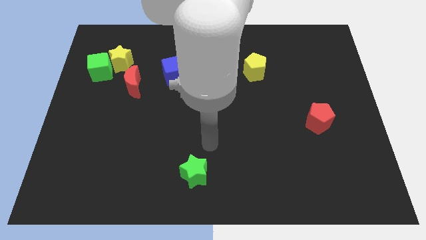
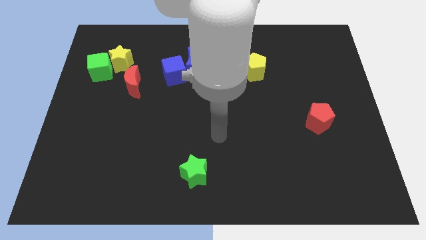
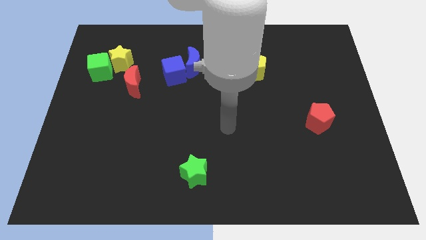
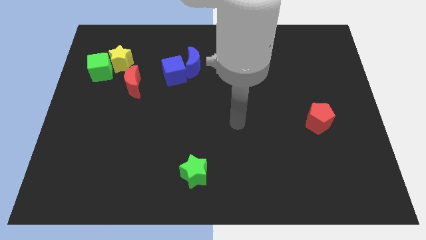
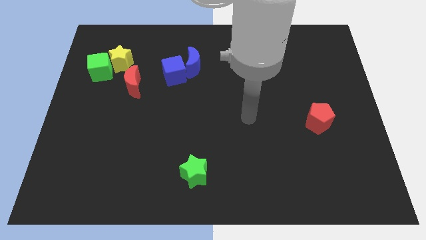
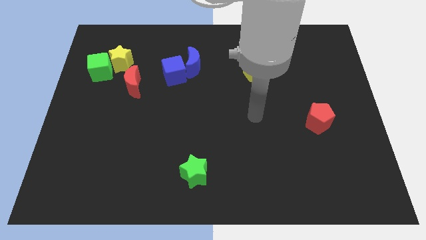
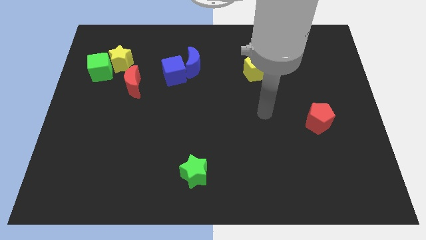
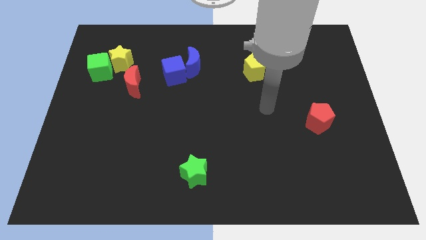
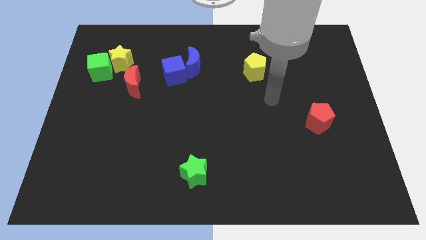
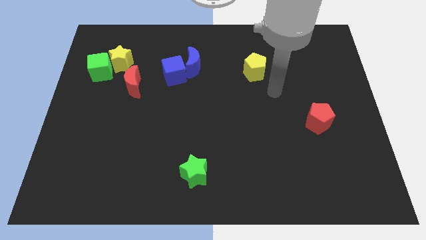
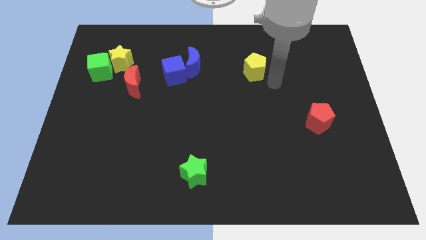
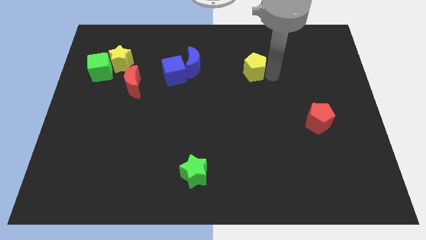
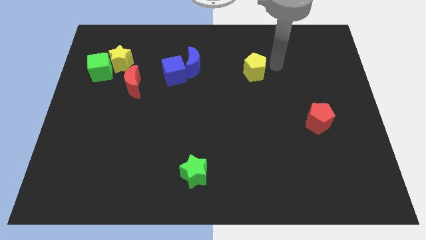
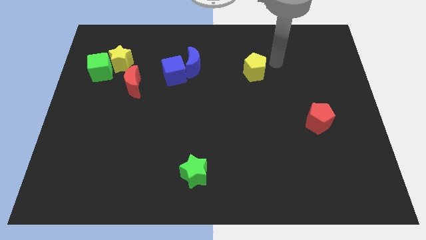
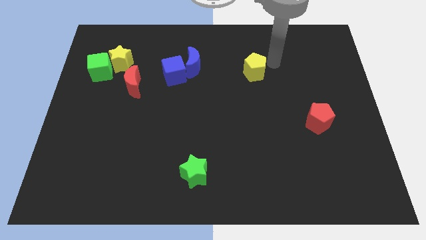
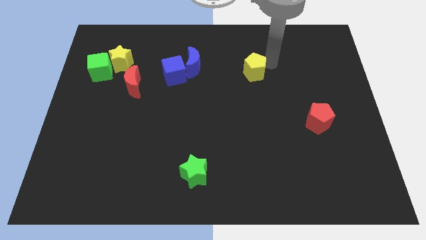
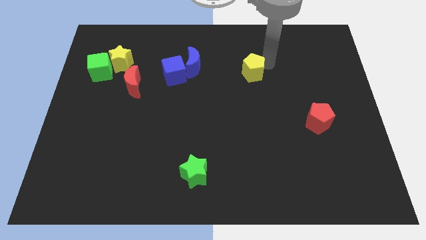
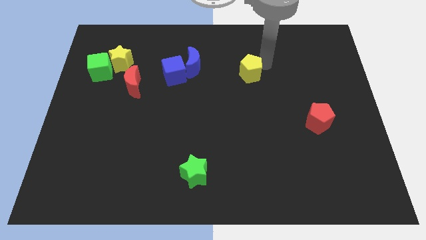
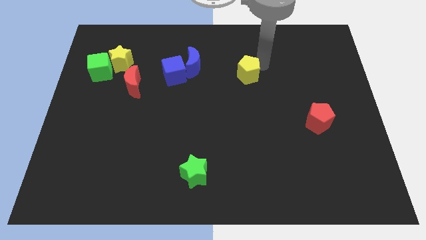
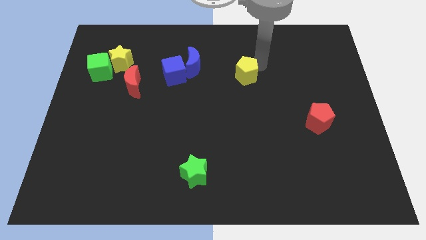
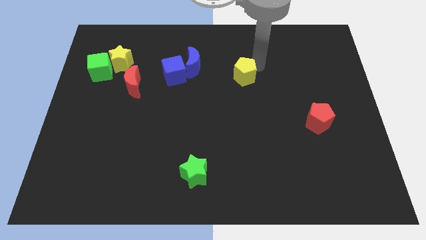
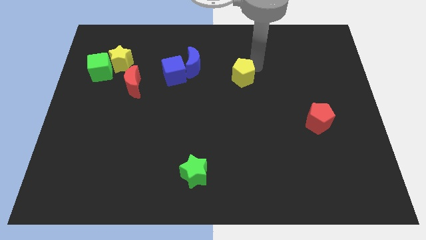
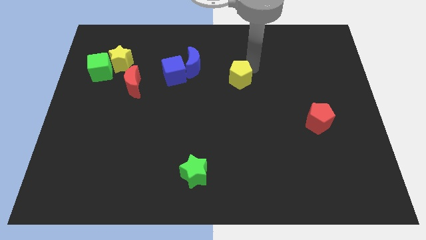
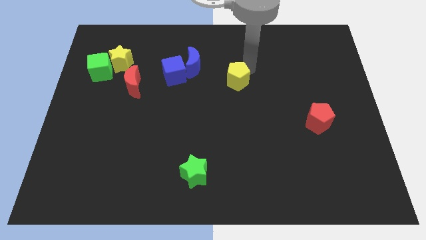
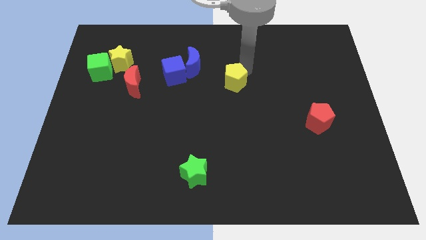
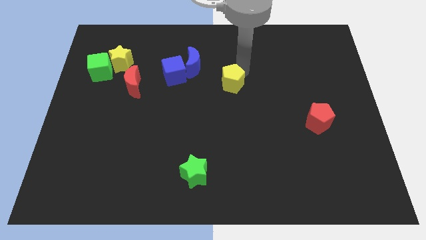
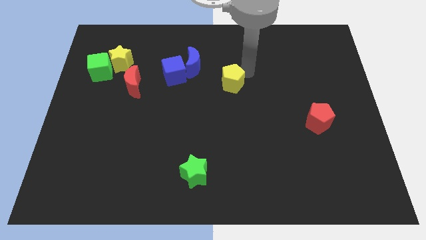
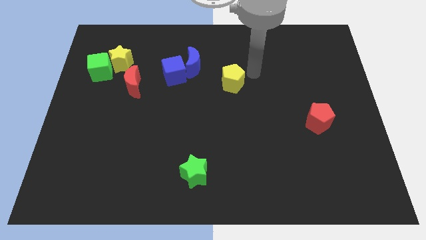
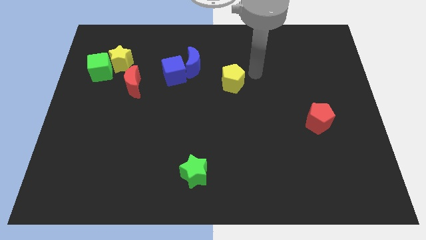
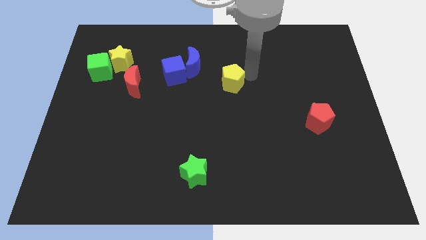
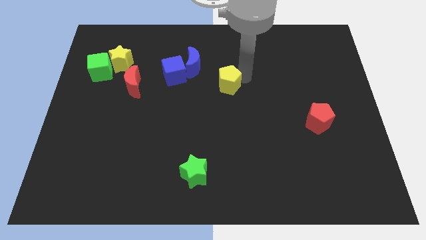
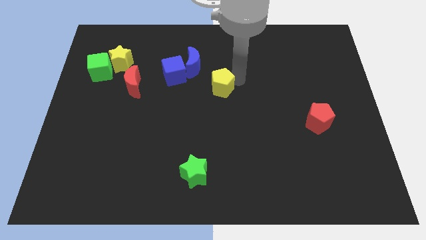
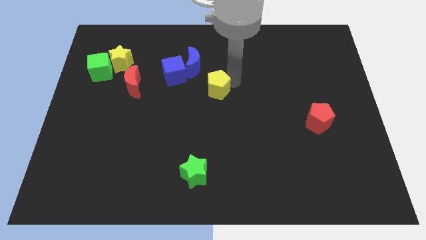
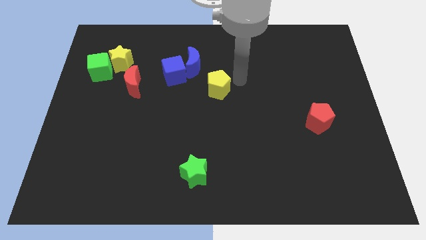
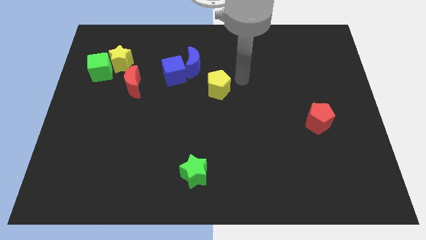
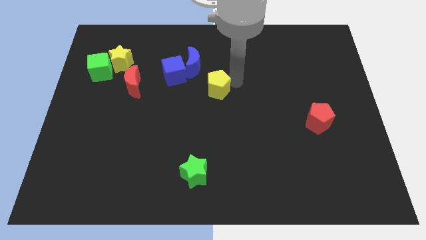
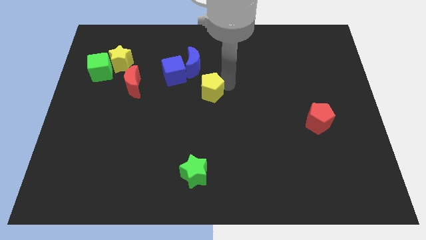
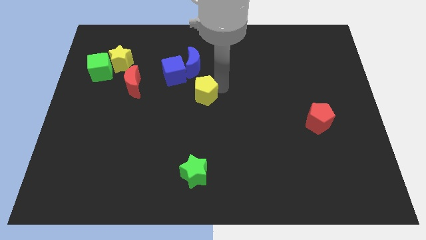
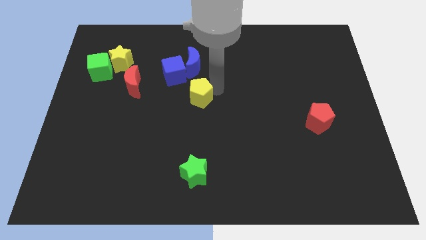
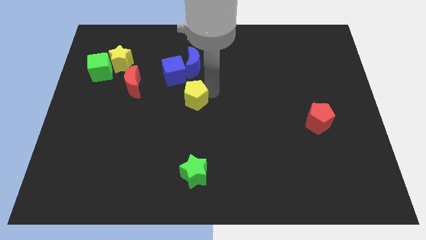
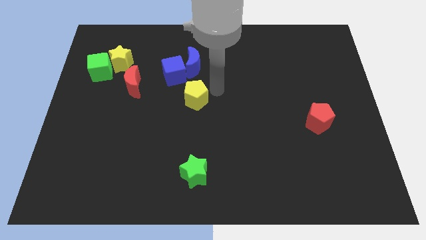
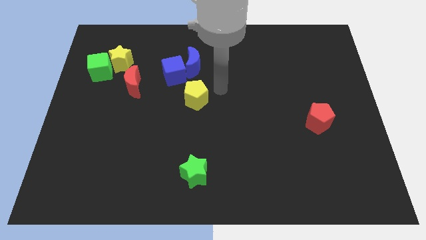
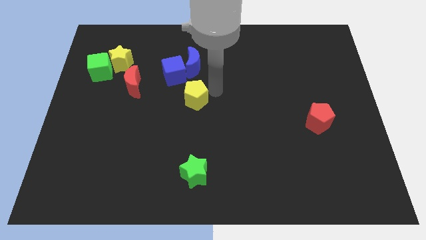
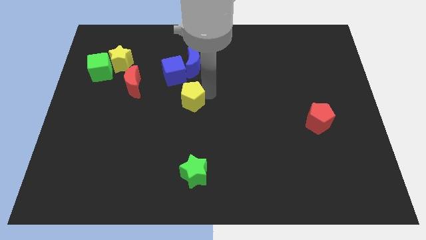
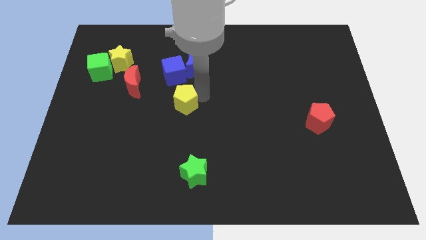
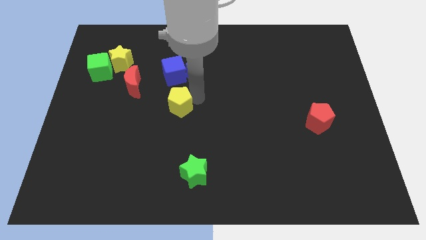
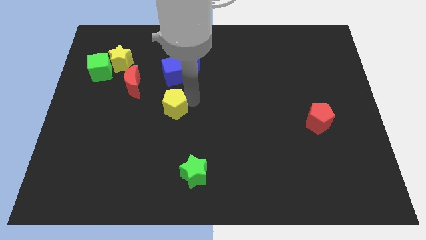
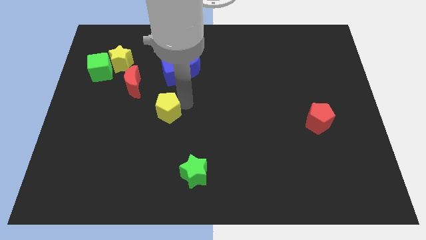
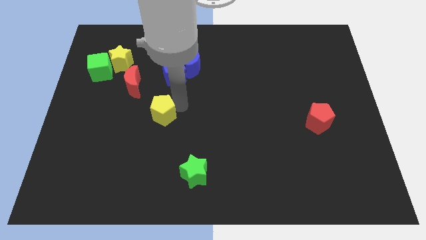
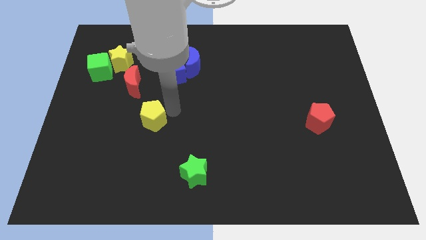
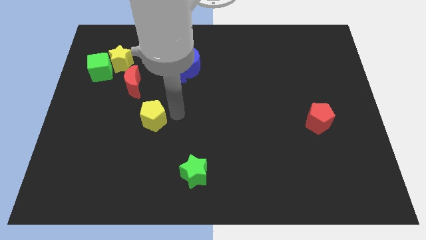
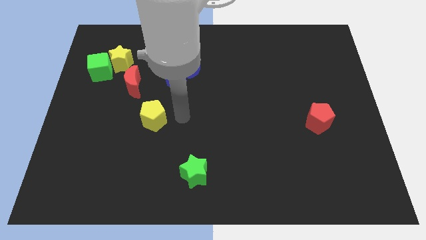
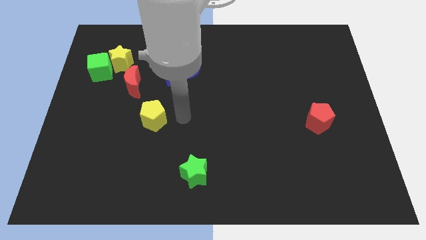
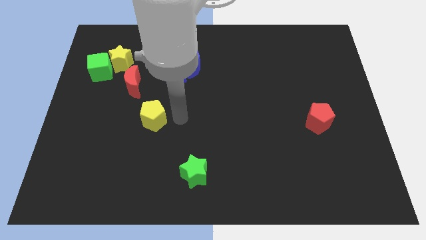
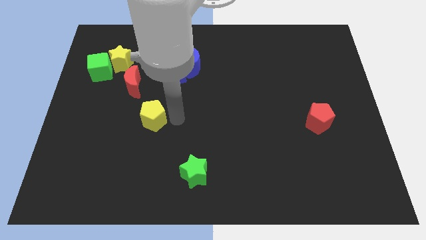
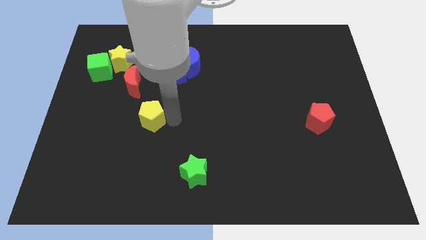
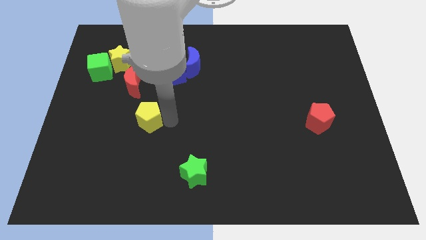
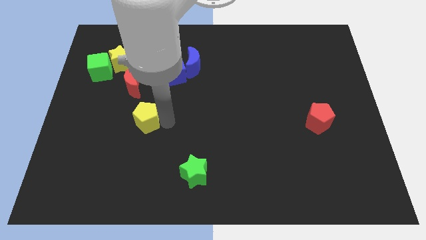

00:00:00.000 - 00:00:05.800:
push the yellow pentagon below the red moon
